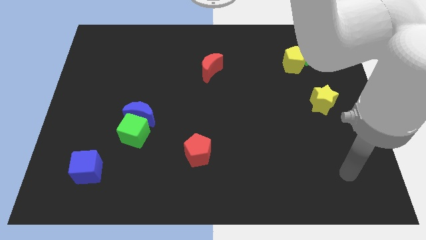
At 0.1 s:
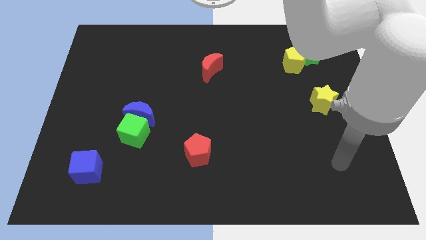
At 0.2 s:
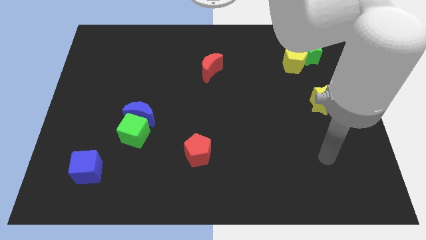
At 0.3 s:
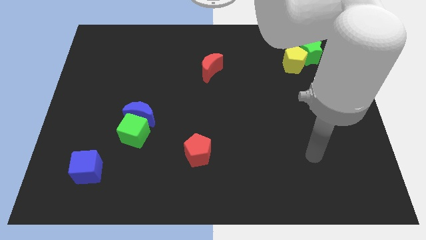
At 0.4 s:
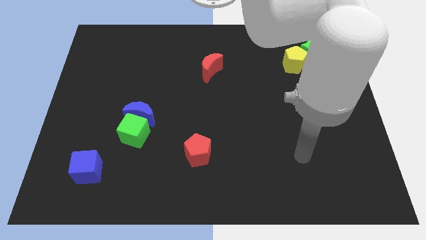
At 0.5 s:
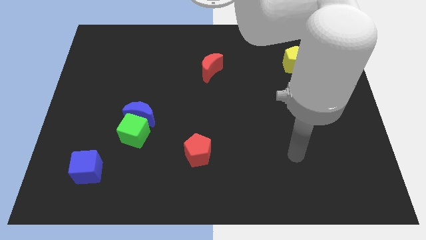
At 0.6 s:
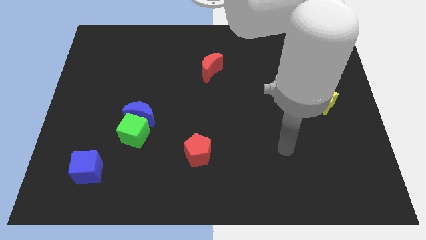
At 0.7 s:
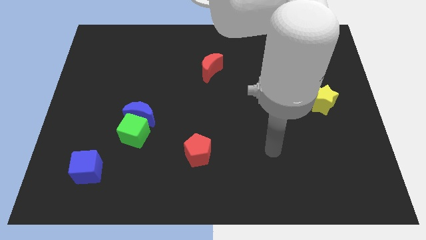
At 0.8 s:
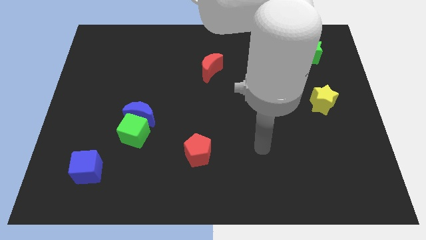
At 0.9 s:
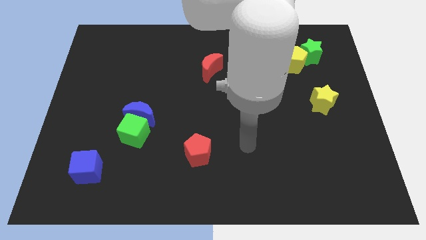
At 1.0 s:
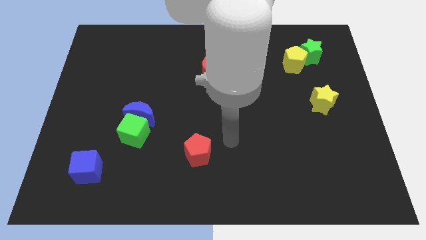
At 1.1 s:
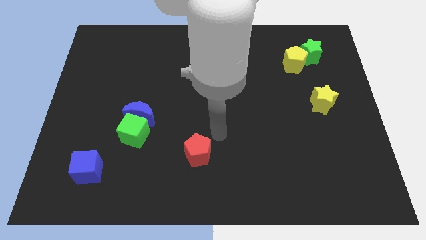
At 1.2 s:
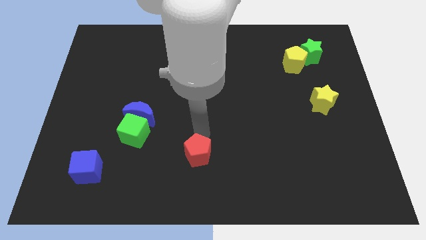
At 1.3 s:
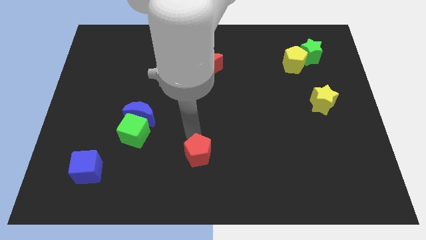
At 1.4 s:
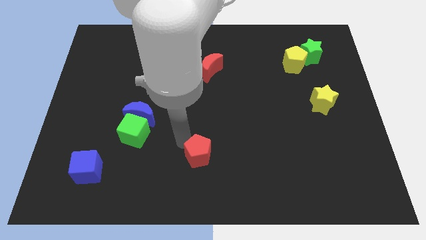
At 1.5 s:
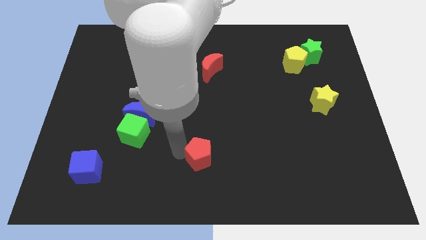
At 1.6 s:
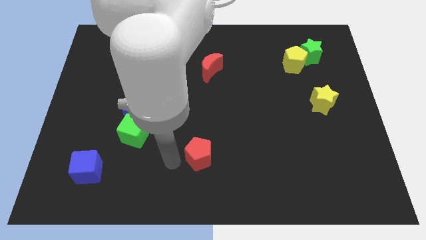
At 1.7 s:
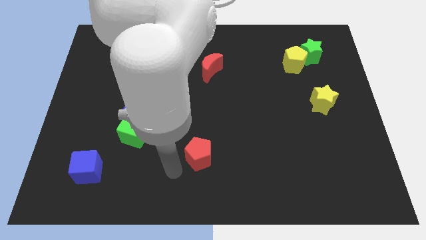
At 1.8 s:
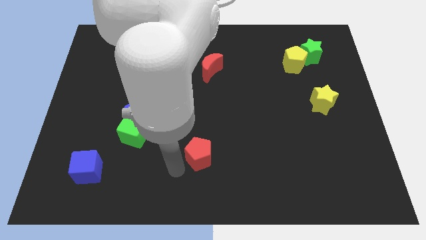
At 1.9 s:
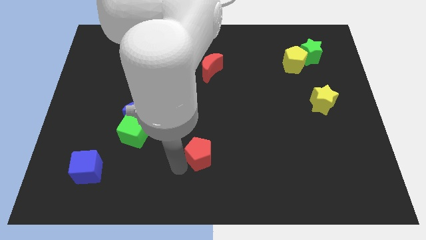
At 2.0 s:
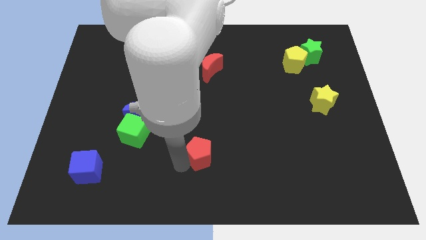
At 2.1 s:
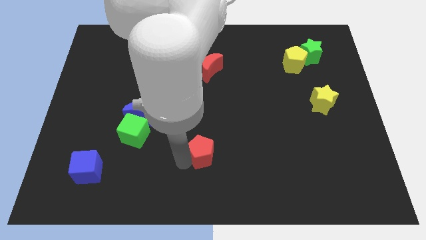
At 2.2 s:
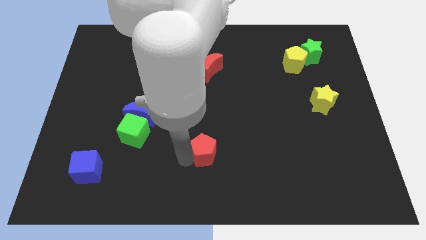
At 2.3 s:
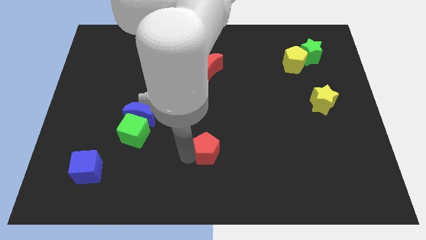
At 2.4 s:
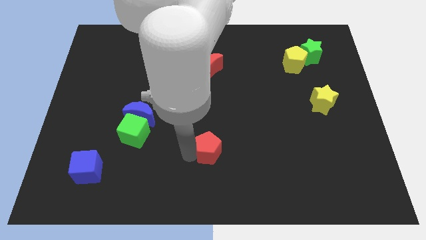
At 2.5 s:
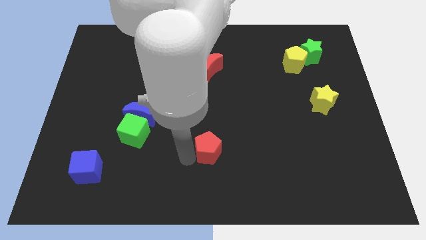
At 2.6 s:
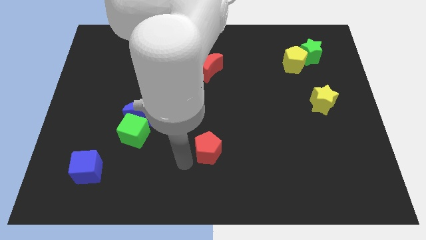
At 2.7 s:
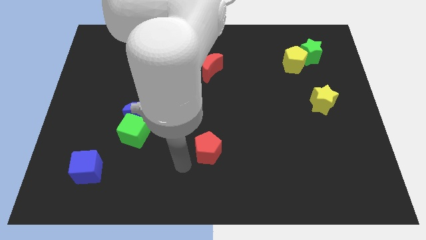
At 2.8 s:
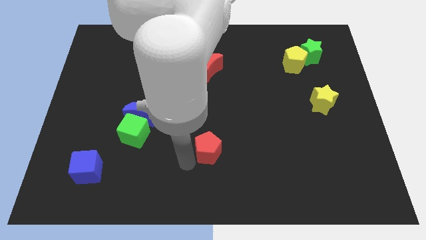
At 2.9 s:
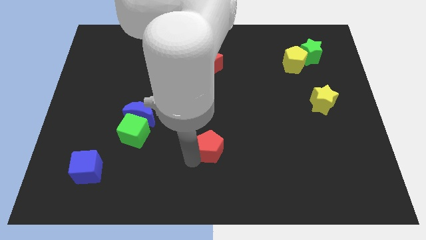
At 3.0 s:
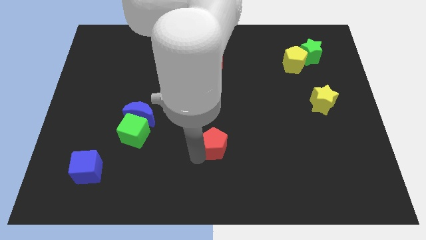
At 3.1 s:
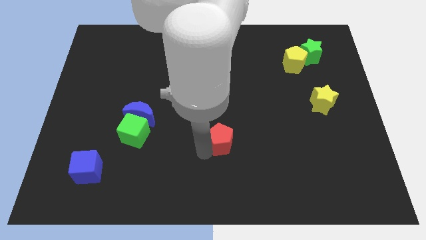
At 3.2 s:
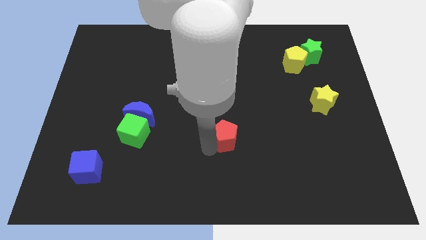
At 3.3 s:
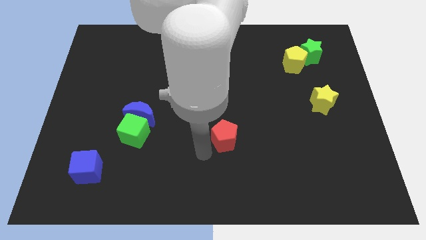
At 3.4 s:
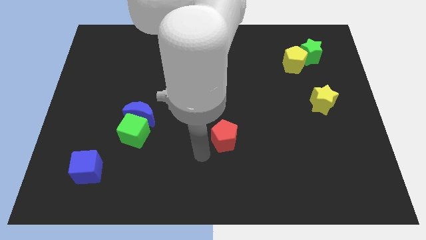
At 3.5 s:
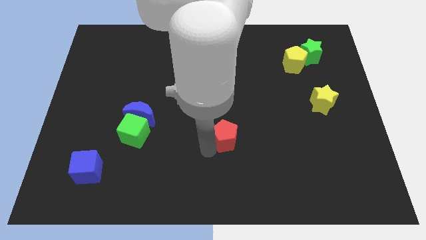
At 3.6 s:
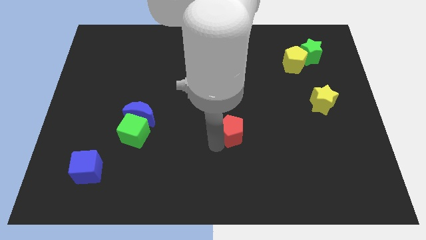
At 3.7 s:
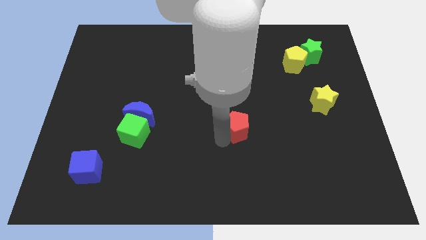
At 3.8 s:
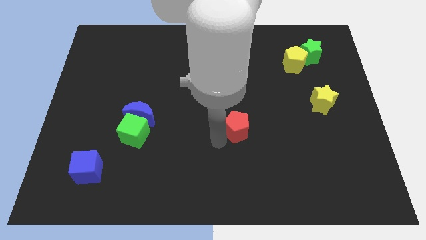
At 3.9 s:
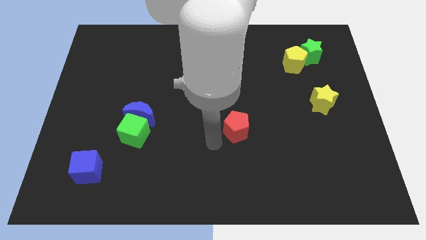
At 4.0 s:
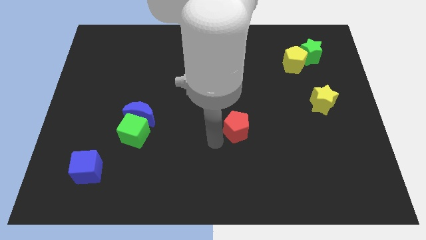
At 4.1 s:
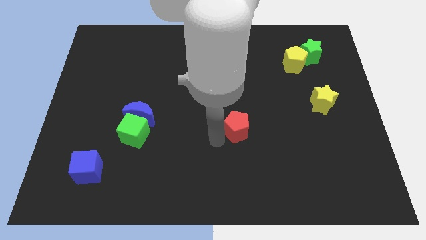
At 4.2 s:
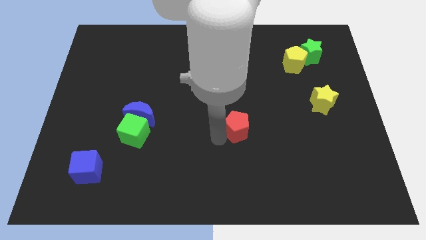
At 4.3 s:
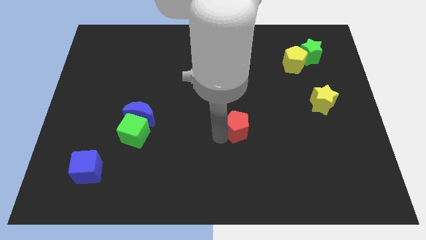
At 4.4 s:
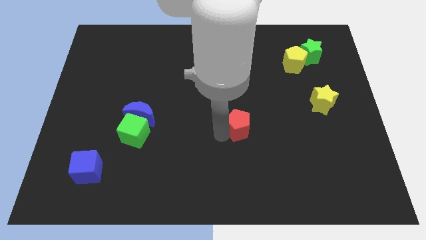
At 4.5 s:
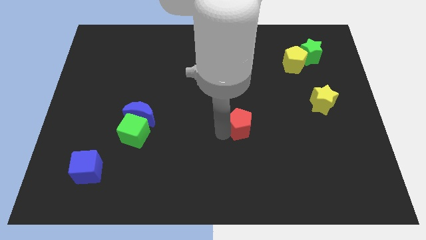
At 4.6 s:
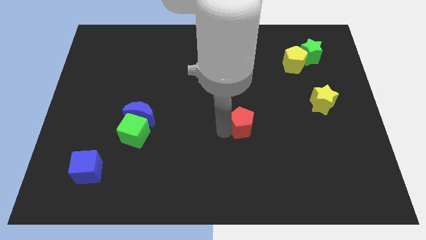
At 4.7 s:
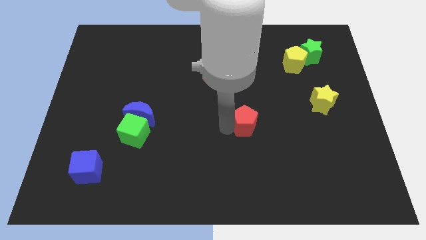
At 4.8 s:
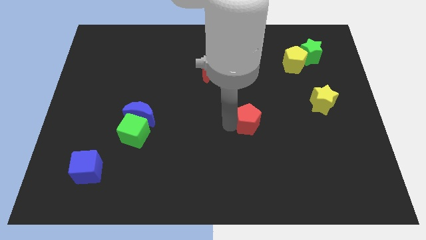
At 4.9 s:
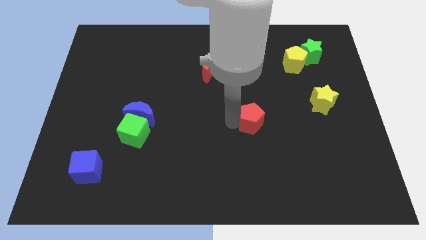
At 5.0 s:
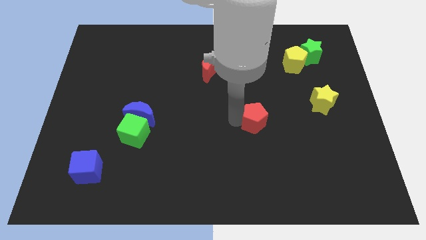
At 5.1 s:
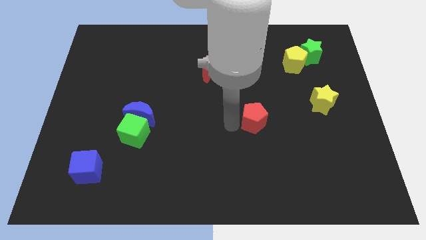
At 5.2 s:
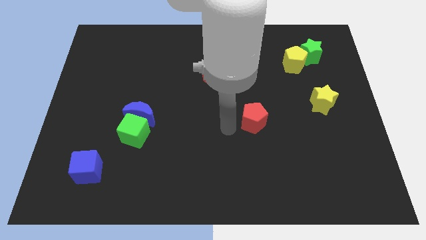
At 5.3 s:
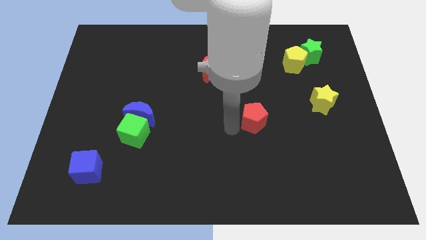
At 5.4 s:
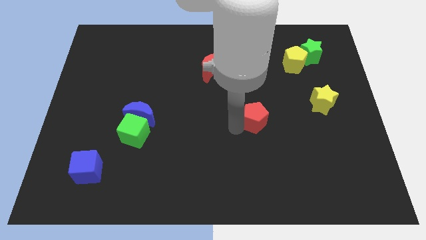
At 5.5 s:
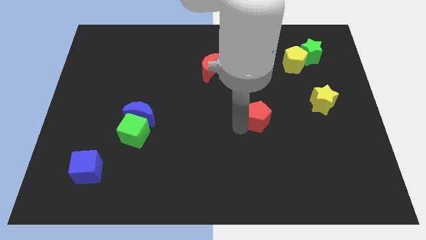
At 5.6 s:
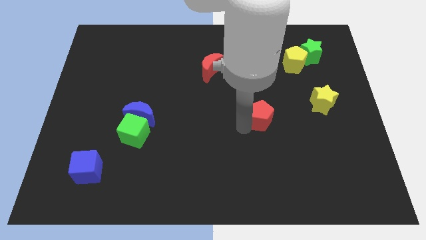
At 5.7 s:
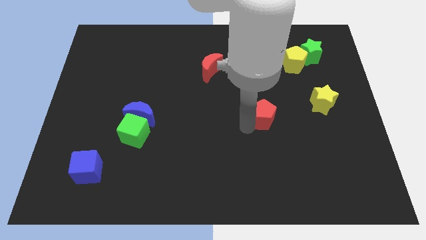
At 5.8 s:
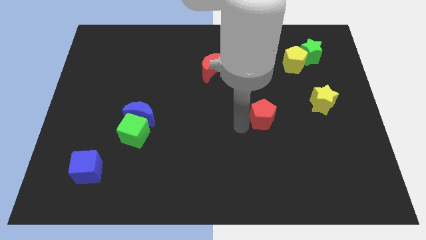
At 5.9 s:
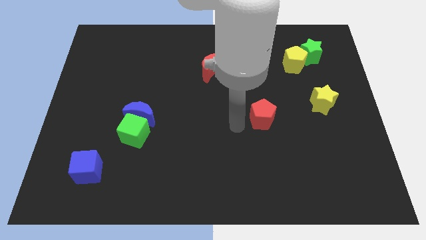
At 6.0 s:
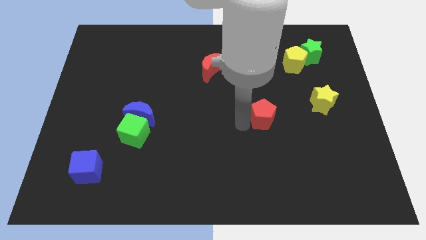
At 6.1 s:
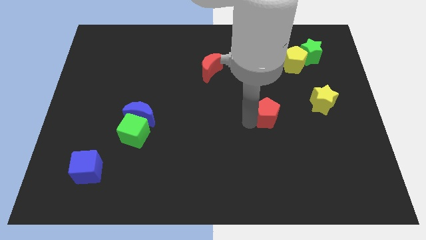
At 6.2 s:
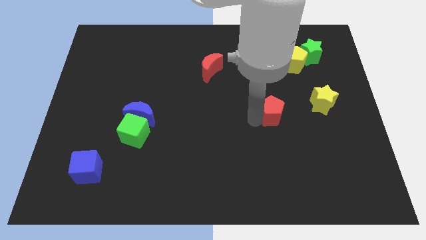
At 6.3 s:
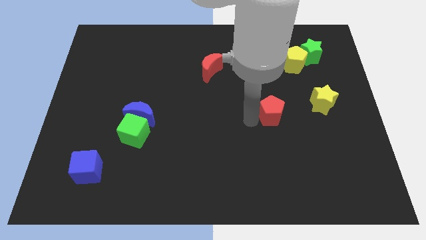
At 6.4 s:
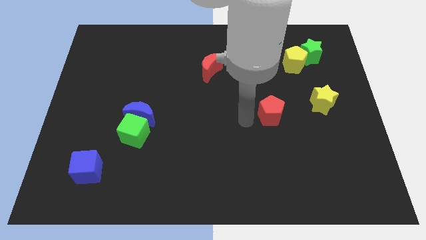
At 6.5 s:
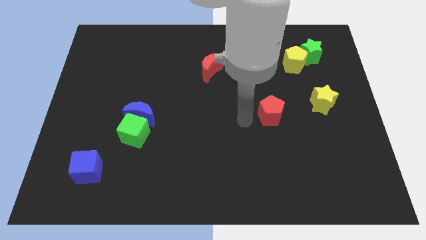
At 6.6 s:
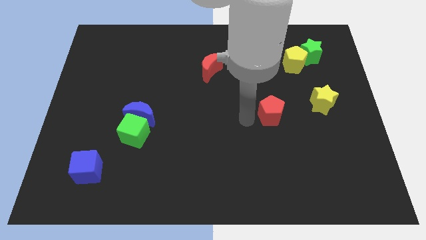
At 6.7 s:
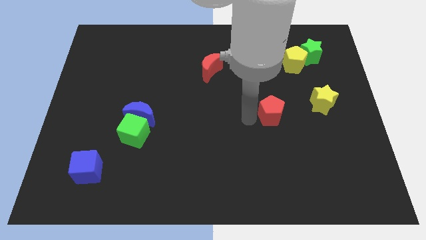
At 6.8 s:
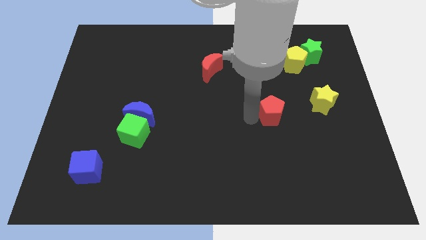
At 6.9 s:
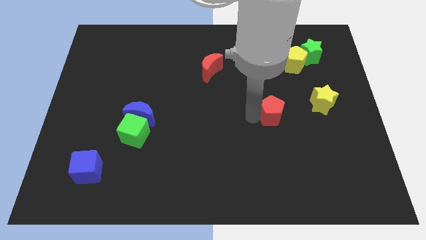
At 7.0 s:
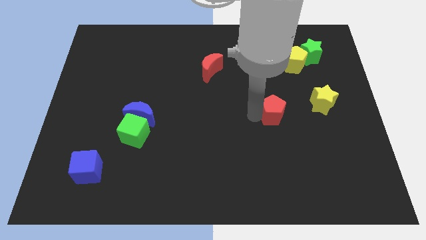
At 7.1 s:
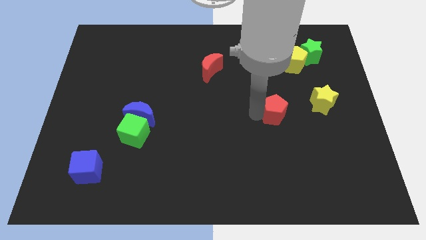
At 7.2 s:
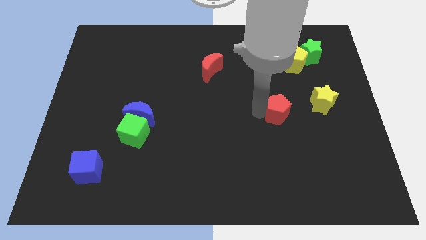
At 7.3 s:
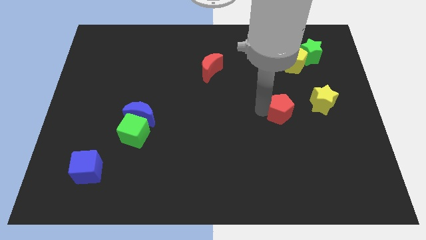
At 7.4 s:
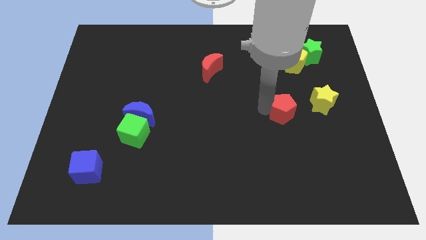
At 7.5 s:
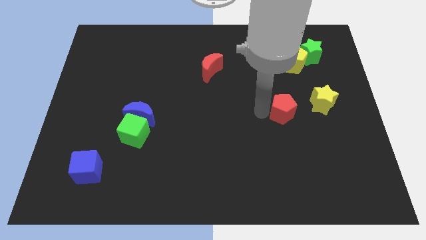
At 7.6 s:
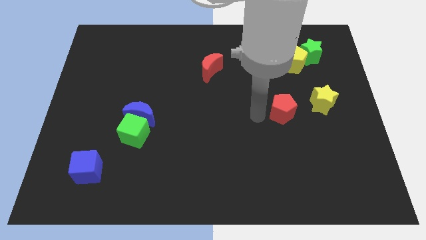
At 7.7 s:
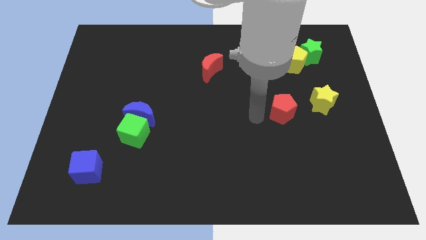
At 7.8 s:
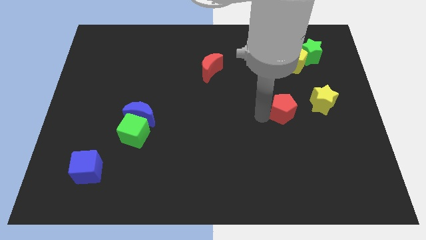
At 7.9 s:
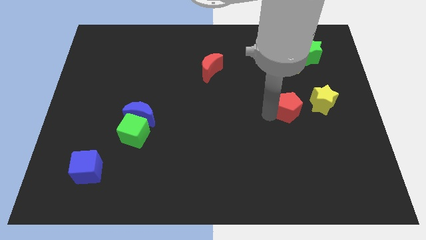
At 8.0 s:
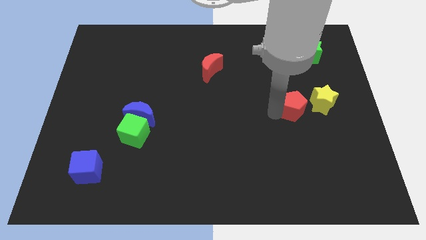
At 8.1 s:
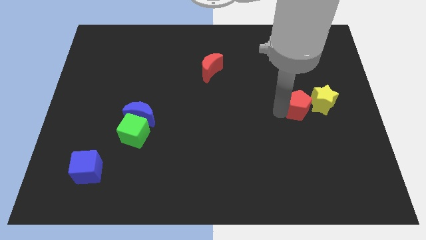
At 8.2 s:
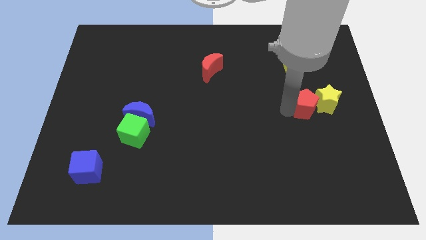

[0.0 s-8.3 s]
push the red pentagon next to the yellow star
